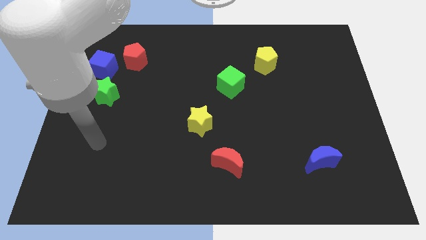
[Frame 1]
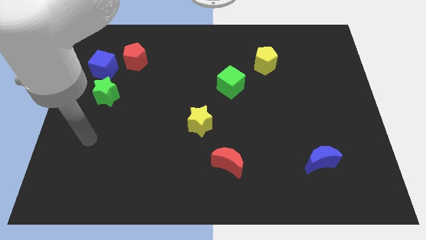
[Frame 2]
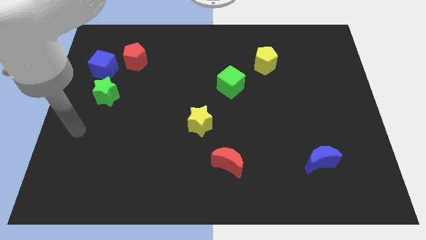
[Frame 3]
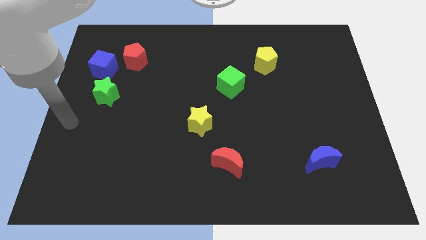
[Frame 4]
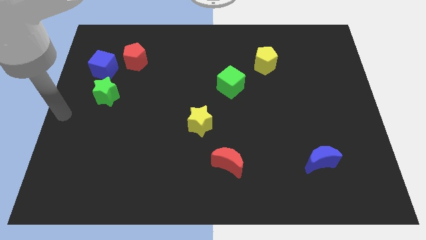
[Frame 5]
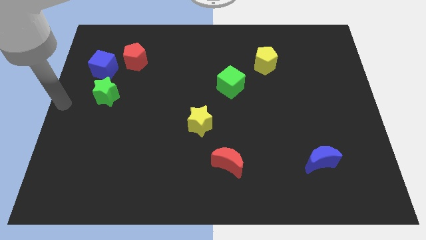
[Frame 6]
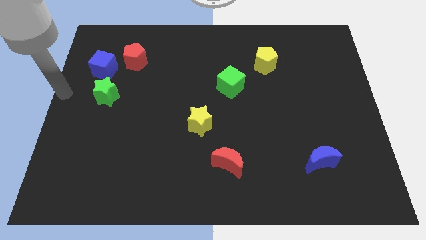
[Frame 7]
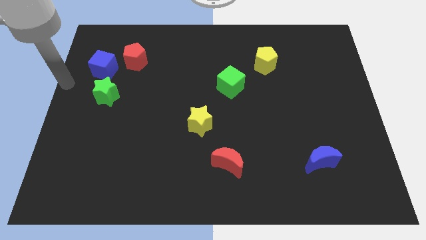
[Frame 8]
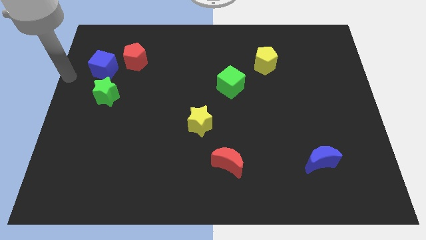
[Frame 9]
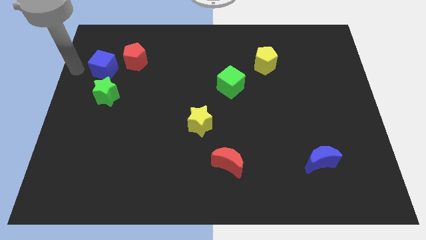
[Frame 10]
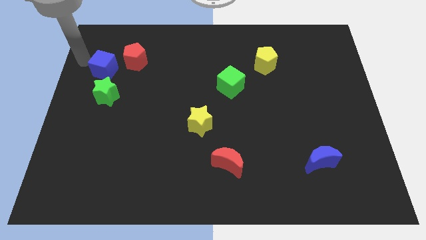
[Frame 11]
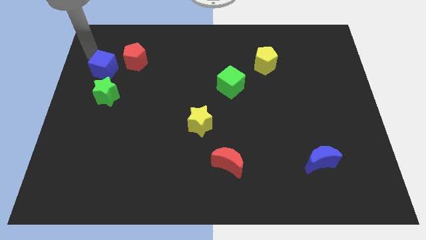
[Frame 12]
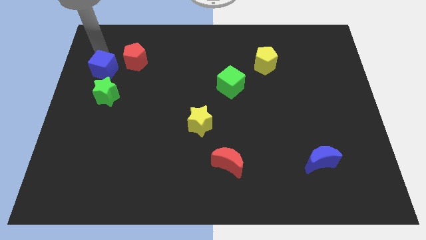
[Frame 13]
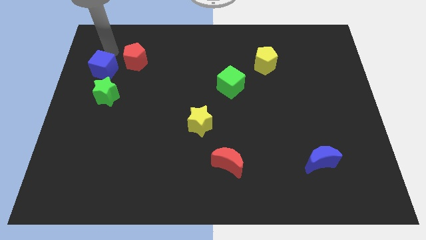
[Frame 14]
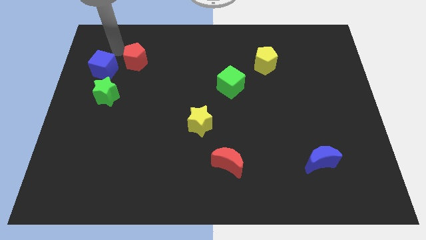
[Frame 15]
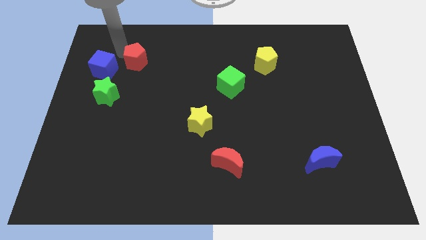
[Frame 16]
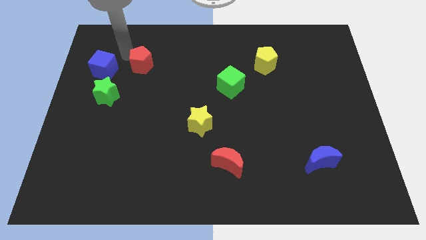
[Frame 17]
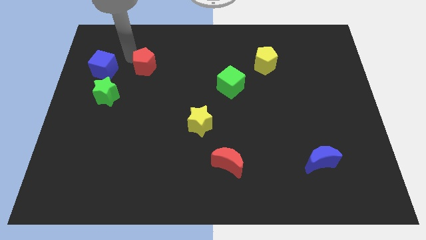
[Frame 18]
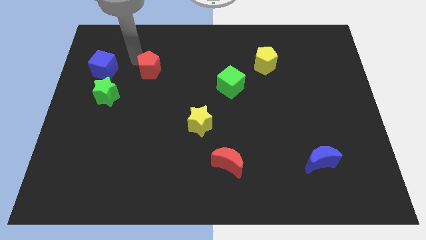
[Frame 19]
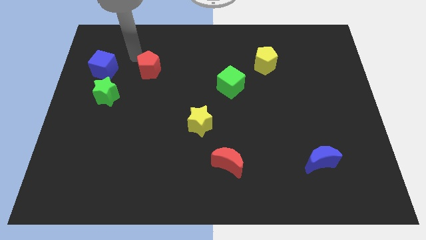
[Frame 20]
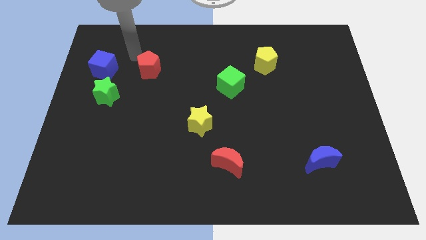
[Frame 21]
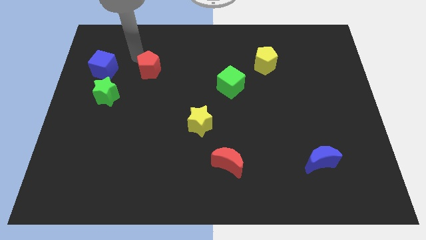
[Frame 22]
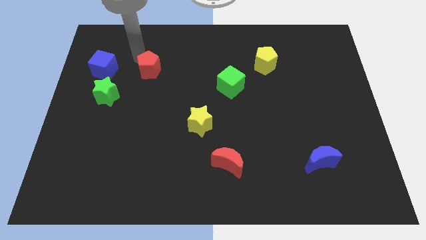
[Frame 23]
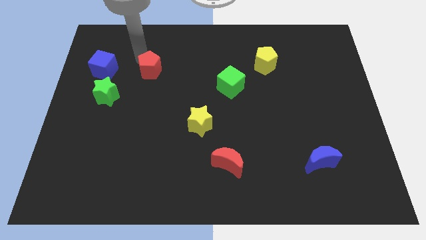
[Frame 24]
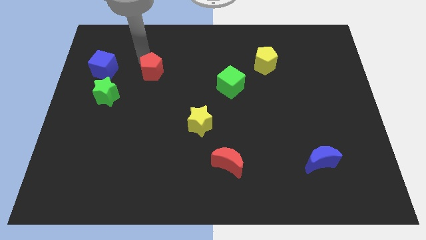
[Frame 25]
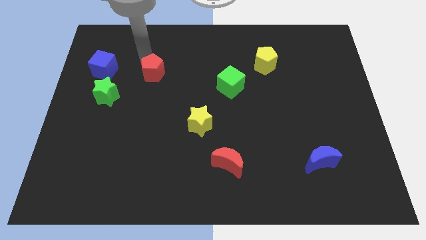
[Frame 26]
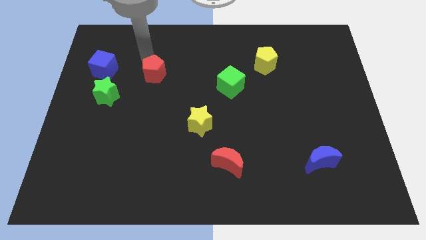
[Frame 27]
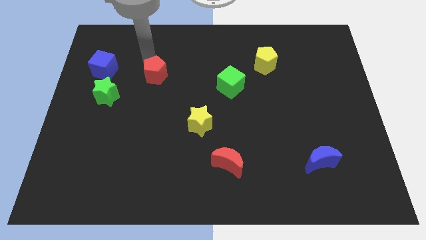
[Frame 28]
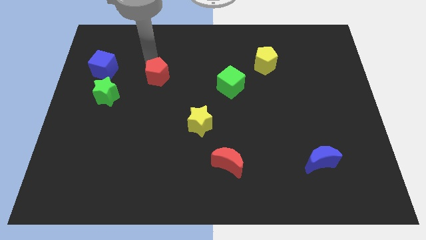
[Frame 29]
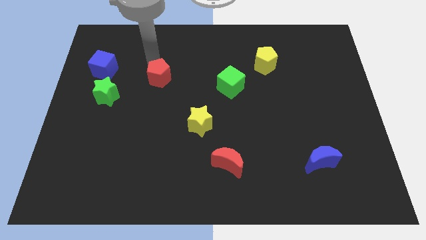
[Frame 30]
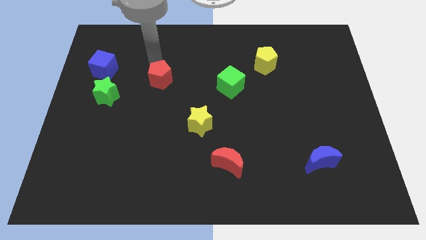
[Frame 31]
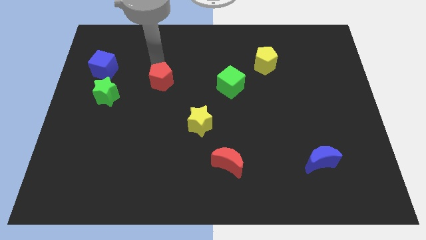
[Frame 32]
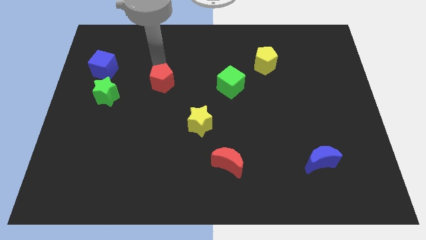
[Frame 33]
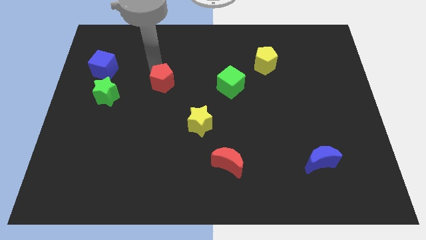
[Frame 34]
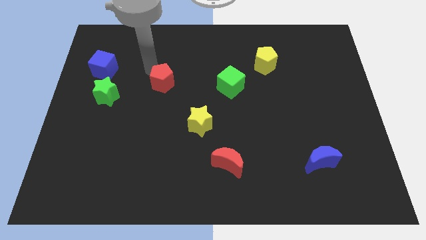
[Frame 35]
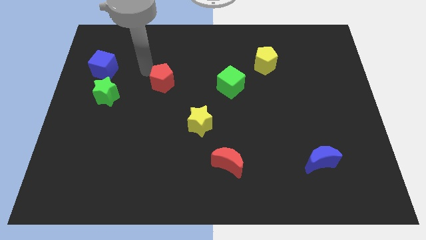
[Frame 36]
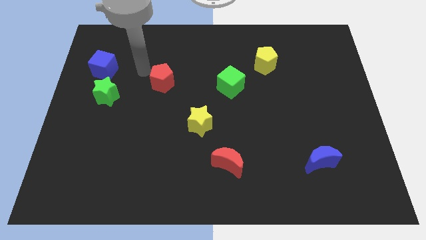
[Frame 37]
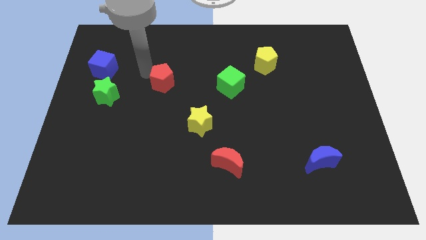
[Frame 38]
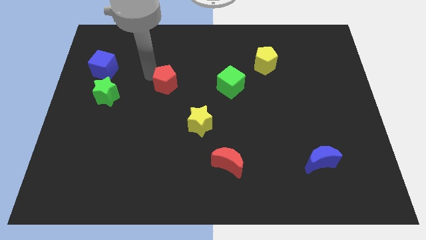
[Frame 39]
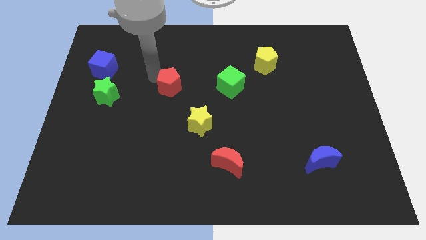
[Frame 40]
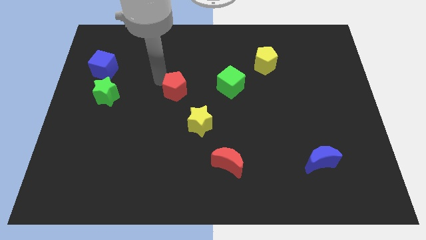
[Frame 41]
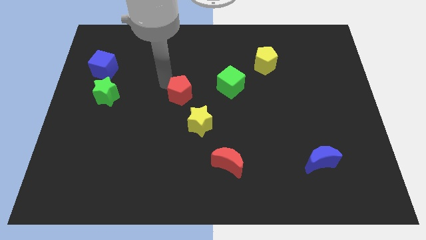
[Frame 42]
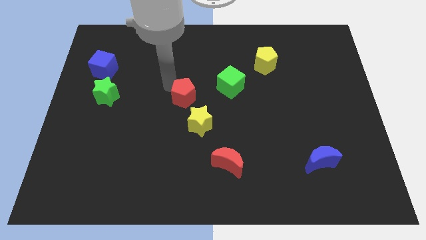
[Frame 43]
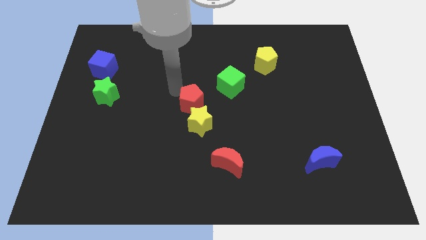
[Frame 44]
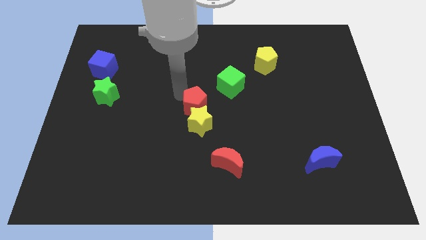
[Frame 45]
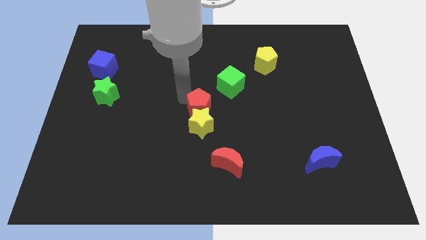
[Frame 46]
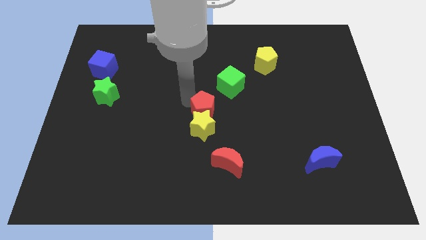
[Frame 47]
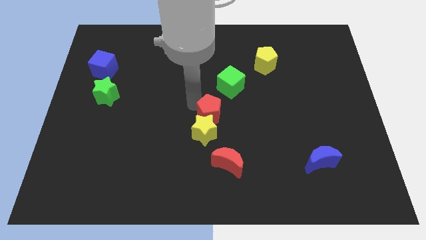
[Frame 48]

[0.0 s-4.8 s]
move the red pentagon to the top side of the red moon

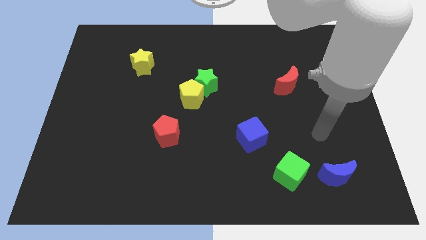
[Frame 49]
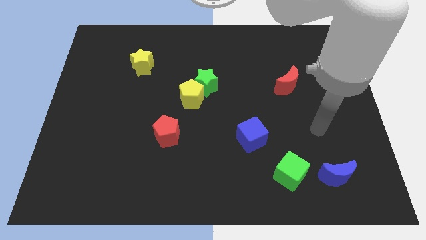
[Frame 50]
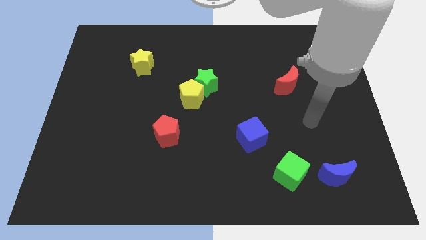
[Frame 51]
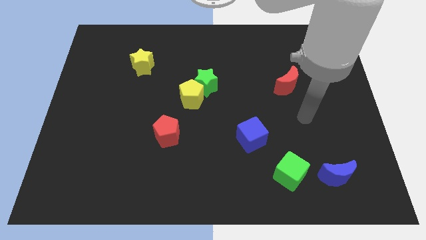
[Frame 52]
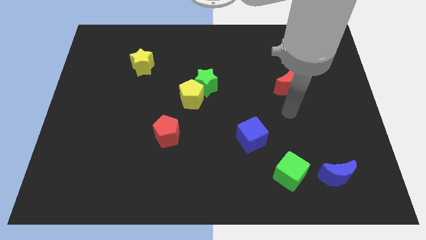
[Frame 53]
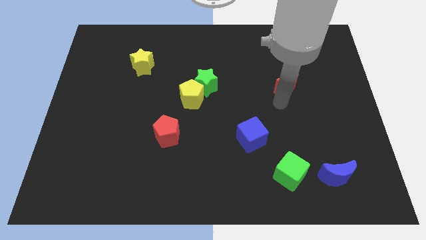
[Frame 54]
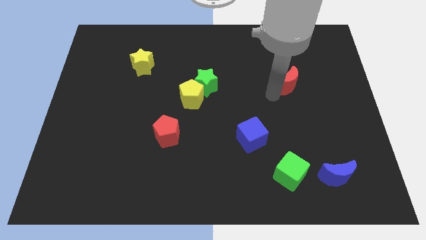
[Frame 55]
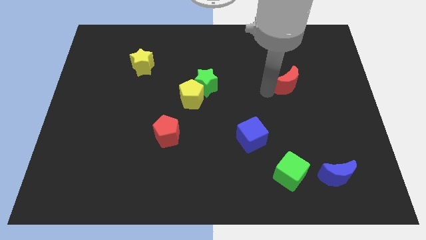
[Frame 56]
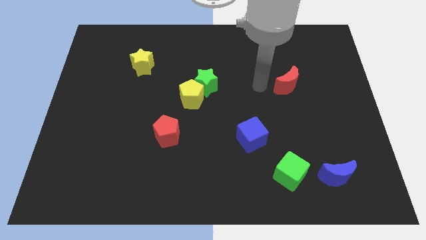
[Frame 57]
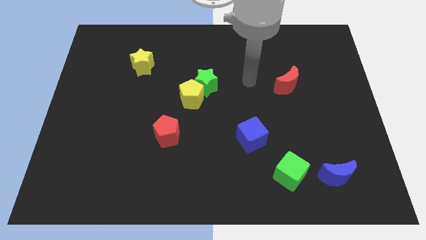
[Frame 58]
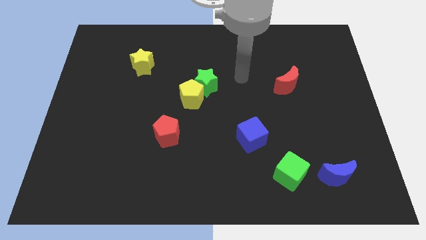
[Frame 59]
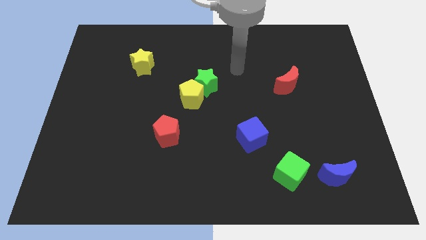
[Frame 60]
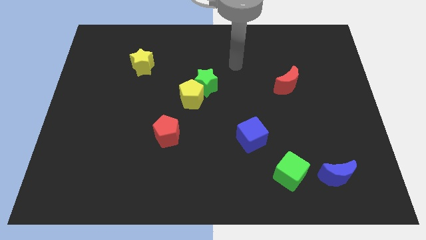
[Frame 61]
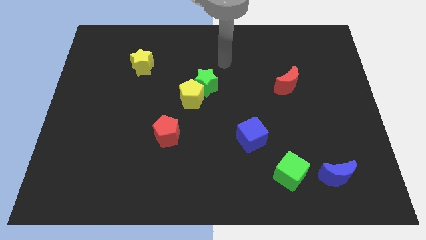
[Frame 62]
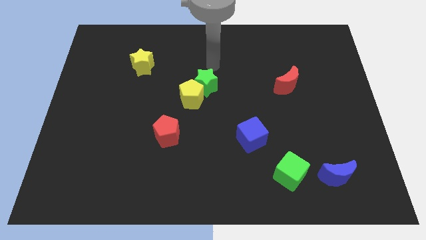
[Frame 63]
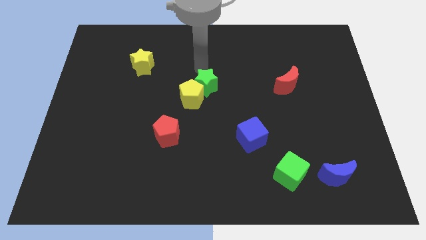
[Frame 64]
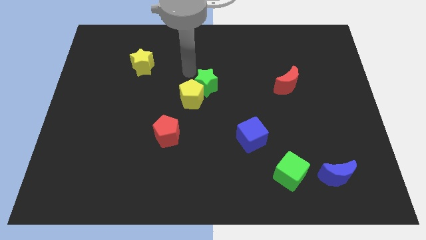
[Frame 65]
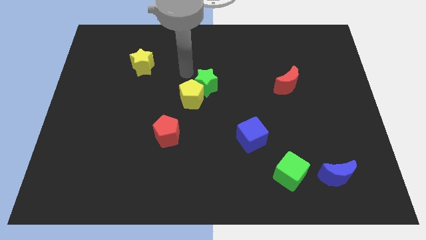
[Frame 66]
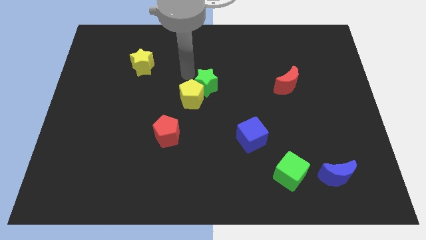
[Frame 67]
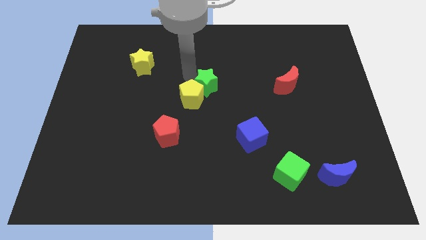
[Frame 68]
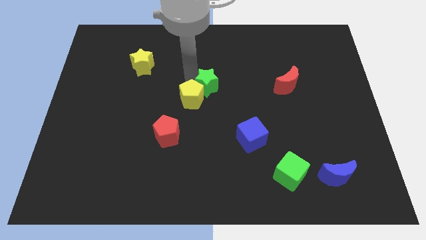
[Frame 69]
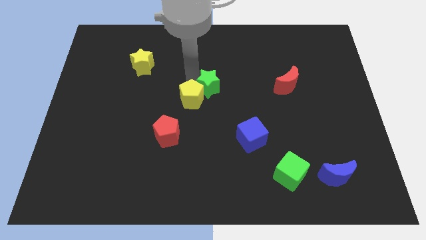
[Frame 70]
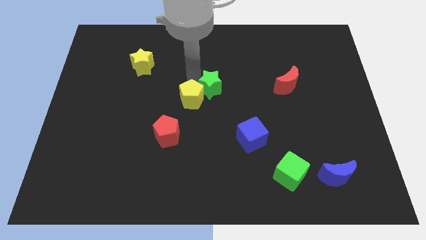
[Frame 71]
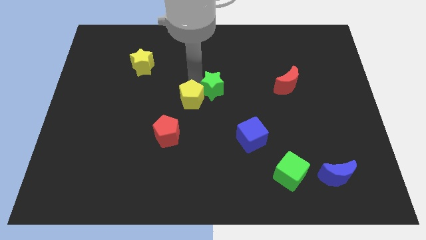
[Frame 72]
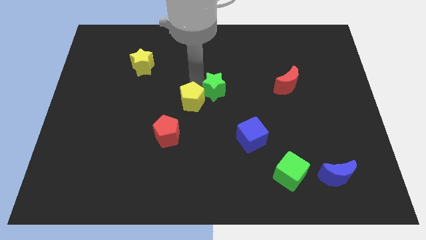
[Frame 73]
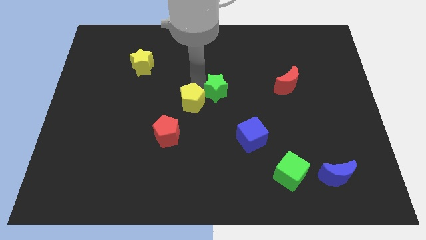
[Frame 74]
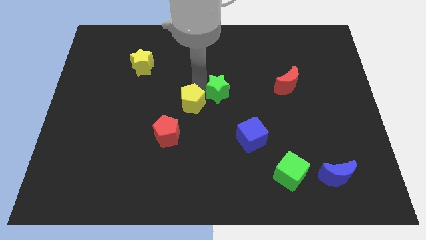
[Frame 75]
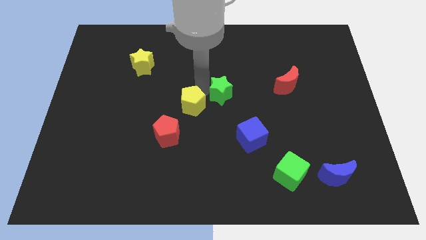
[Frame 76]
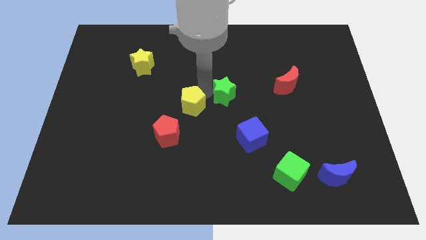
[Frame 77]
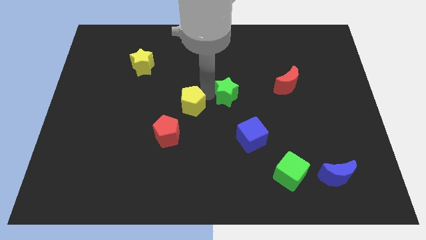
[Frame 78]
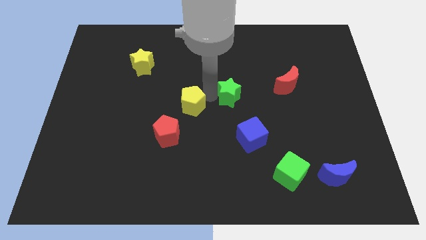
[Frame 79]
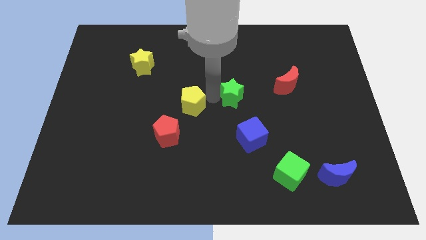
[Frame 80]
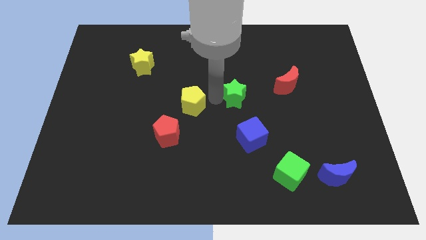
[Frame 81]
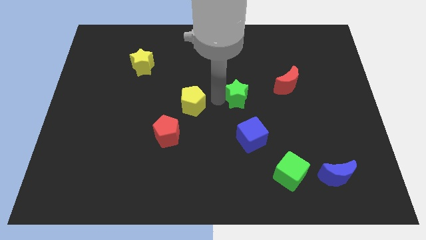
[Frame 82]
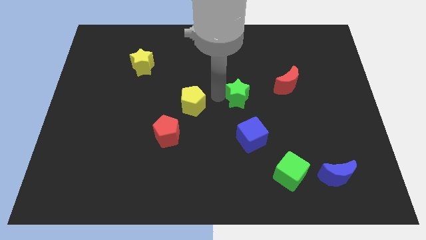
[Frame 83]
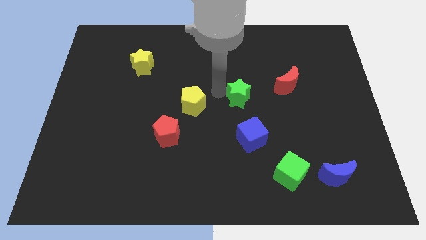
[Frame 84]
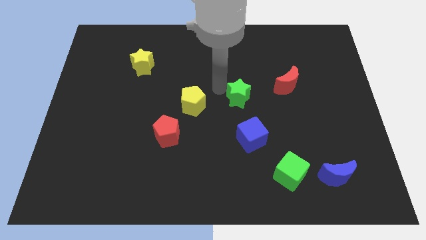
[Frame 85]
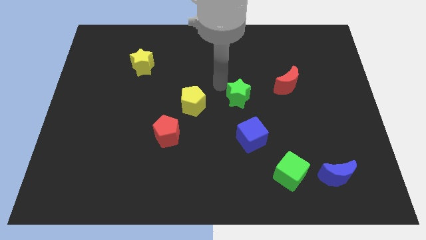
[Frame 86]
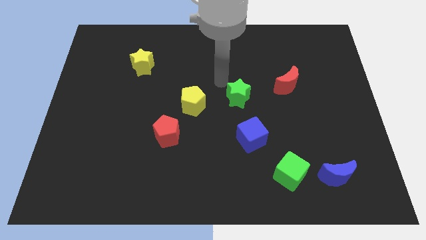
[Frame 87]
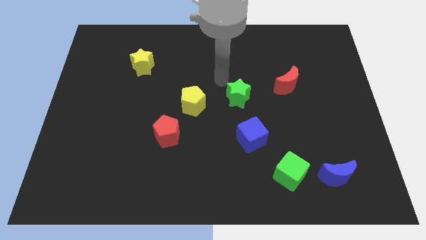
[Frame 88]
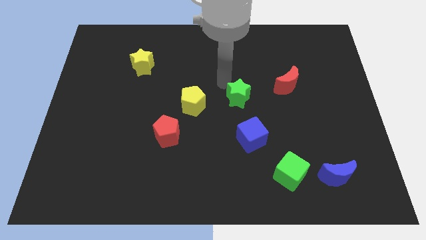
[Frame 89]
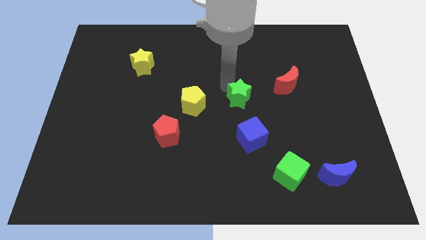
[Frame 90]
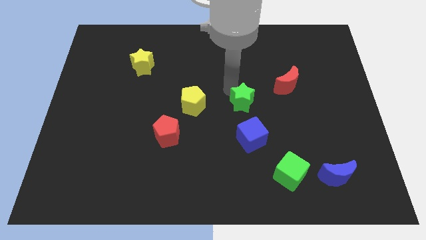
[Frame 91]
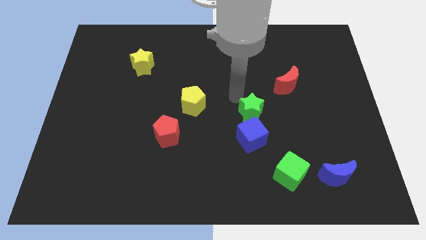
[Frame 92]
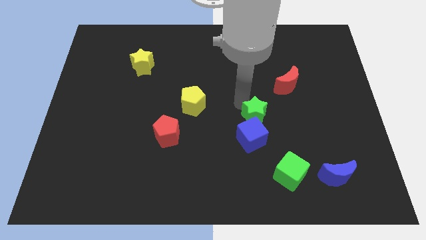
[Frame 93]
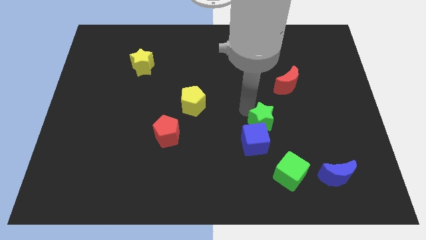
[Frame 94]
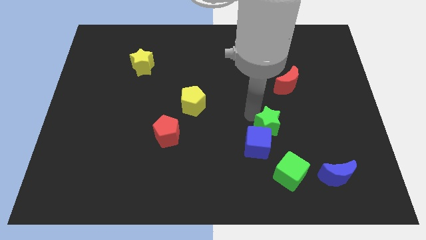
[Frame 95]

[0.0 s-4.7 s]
slide the green star to the top of the green cube
